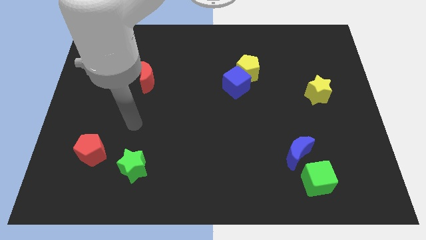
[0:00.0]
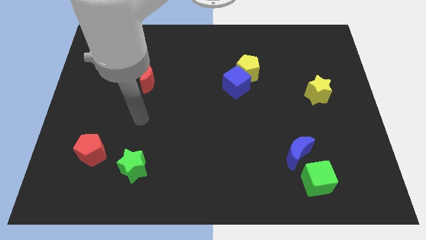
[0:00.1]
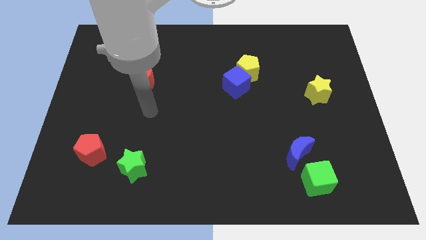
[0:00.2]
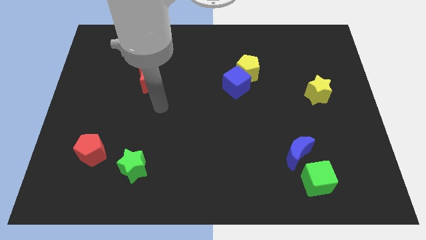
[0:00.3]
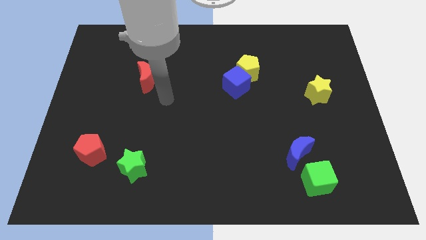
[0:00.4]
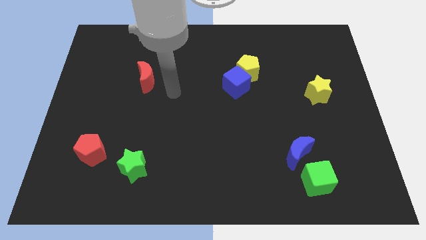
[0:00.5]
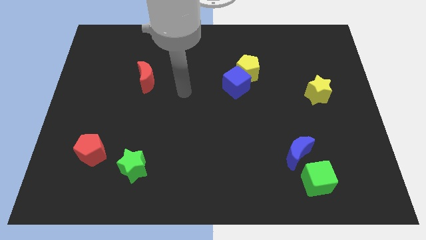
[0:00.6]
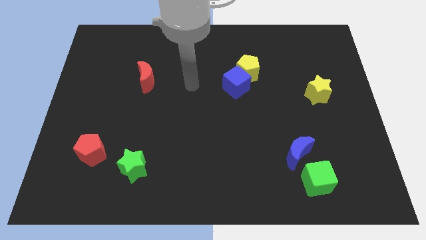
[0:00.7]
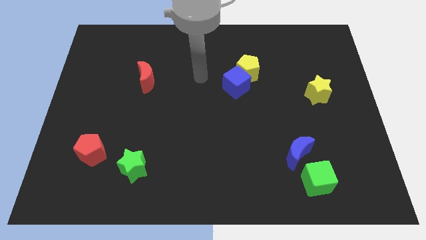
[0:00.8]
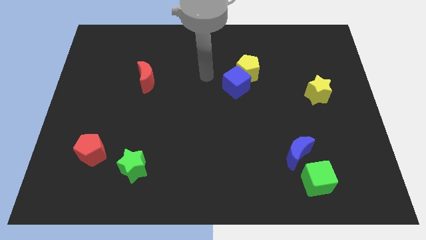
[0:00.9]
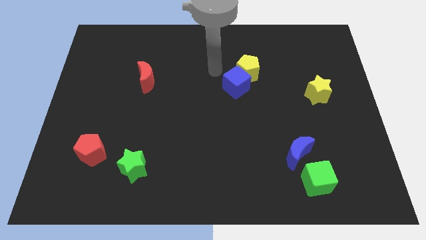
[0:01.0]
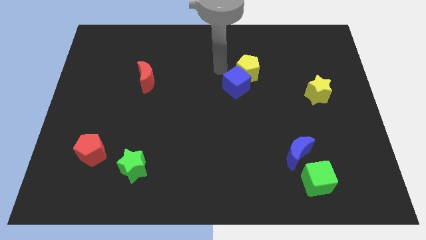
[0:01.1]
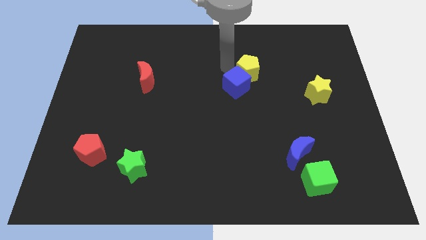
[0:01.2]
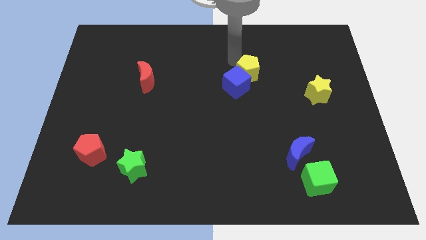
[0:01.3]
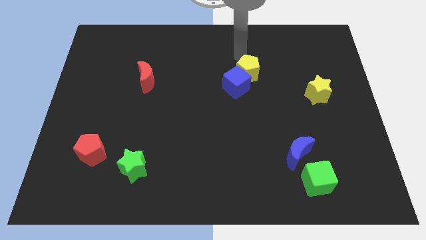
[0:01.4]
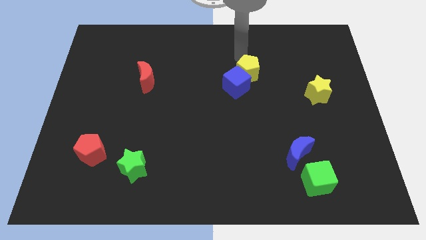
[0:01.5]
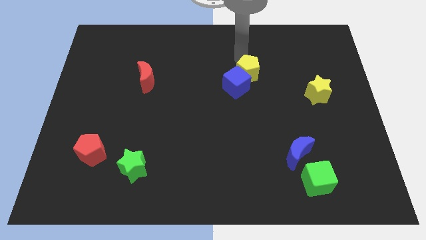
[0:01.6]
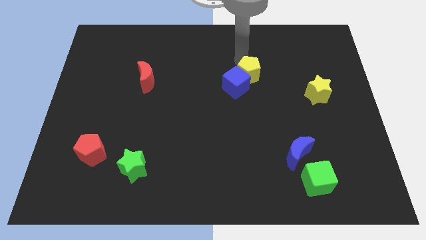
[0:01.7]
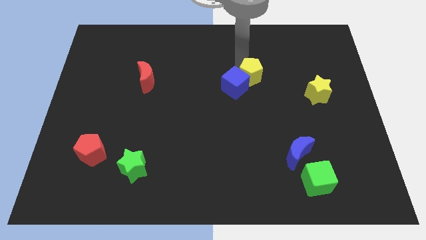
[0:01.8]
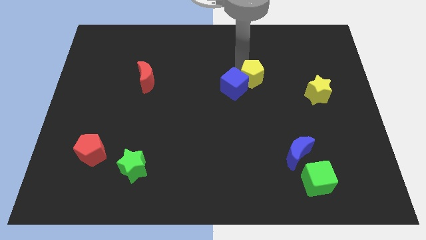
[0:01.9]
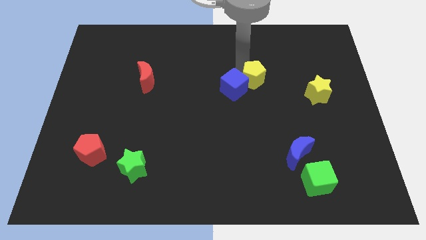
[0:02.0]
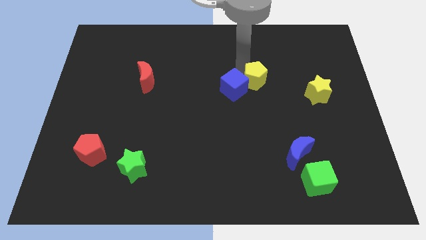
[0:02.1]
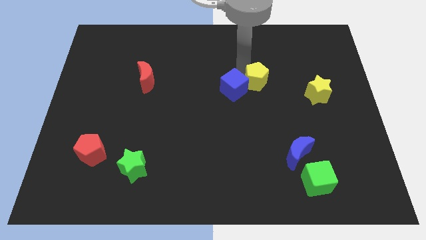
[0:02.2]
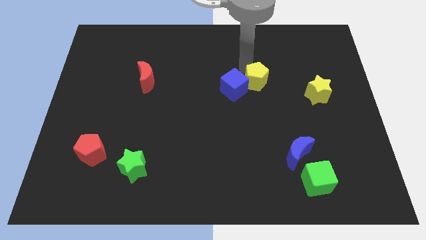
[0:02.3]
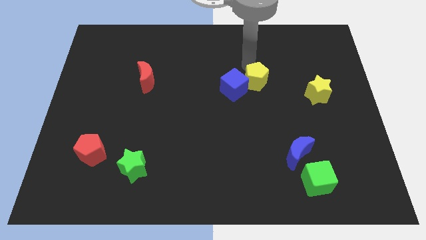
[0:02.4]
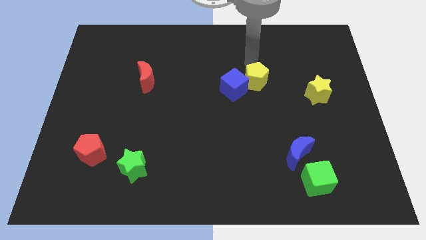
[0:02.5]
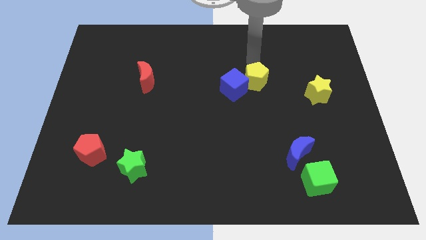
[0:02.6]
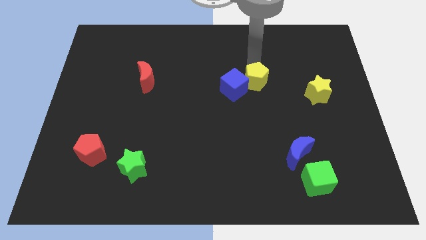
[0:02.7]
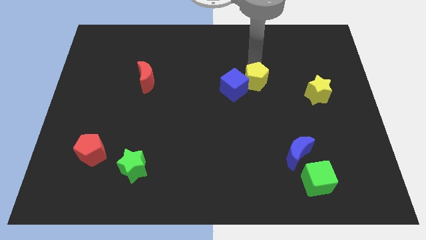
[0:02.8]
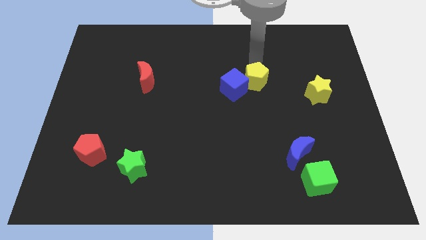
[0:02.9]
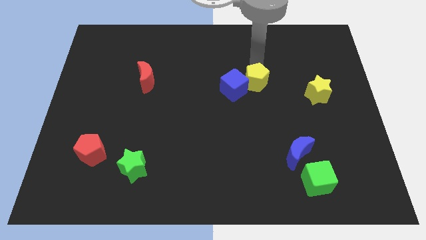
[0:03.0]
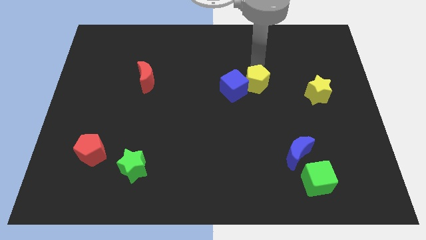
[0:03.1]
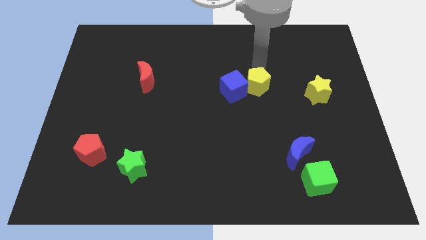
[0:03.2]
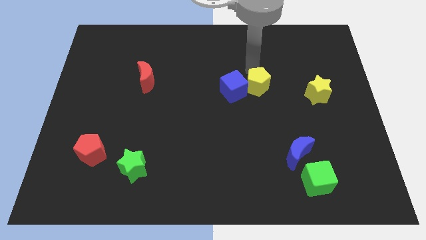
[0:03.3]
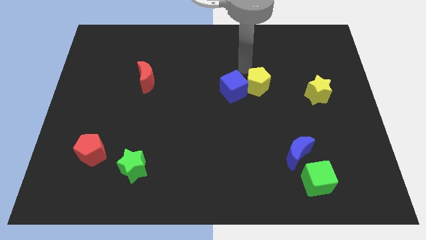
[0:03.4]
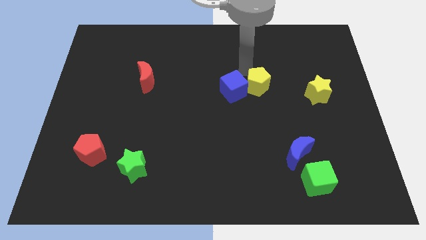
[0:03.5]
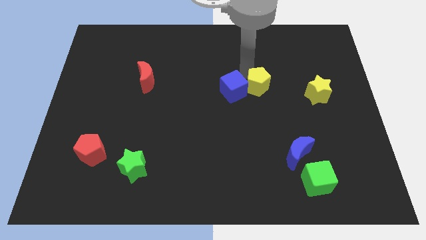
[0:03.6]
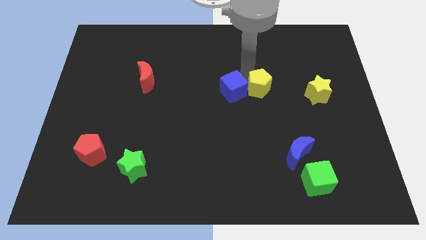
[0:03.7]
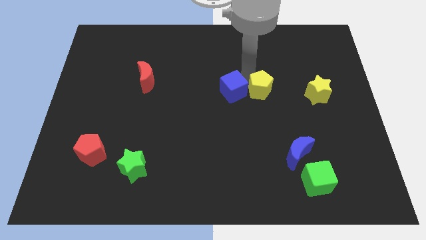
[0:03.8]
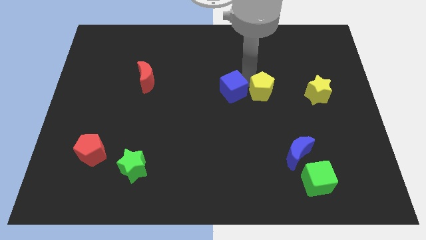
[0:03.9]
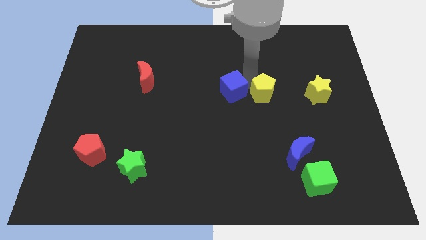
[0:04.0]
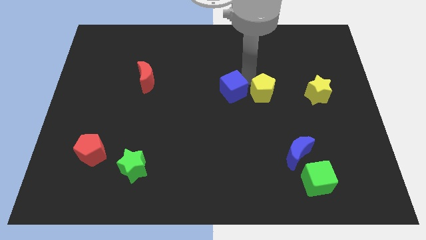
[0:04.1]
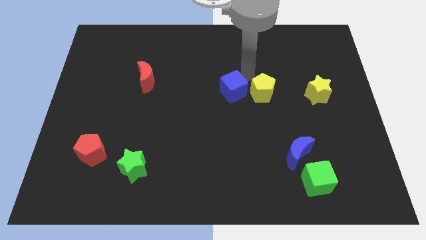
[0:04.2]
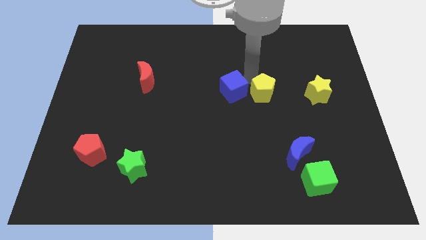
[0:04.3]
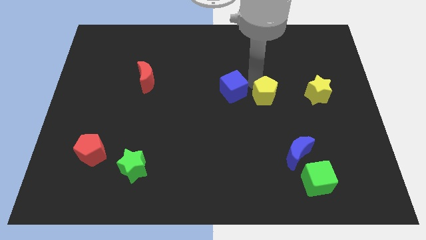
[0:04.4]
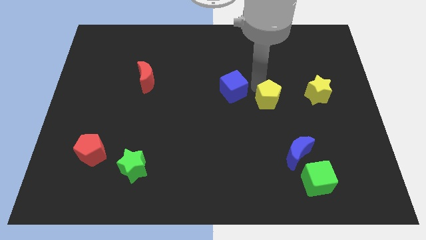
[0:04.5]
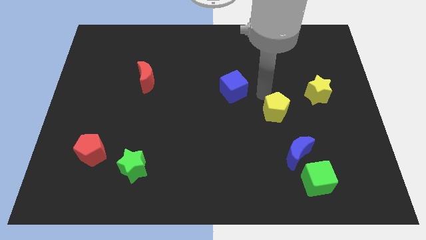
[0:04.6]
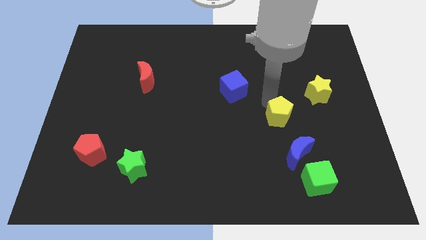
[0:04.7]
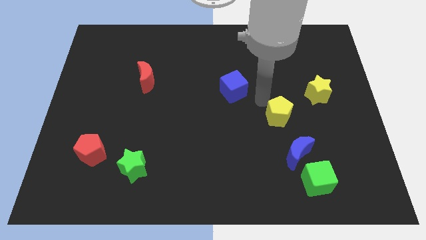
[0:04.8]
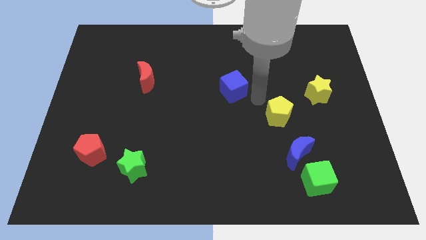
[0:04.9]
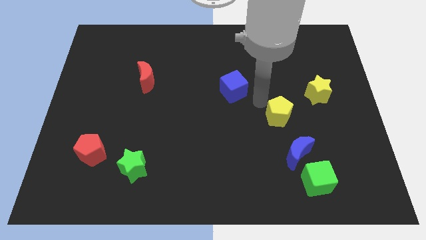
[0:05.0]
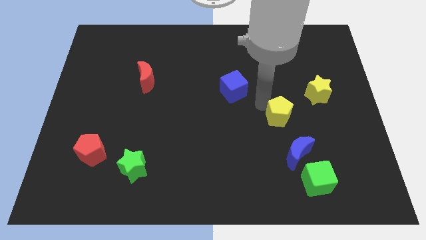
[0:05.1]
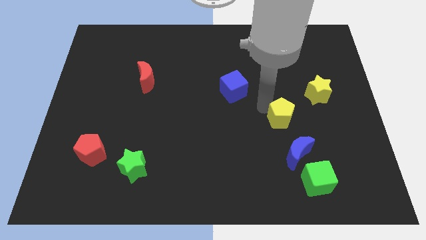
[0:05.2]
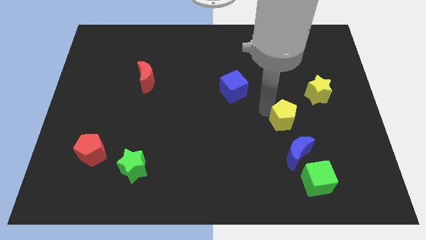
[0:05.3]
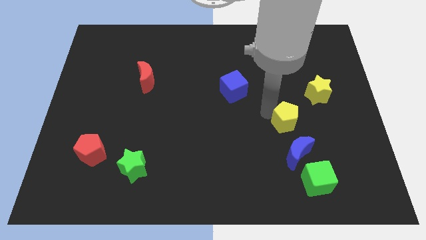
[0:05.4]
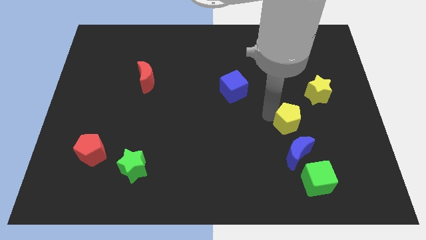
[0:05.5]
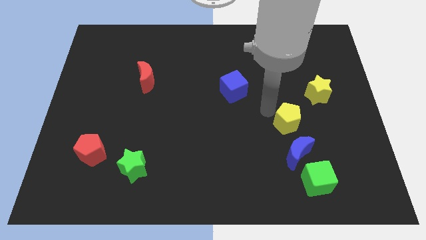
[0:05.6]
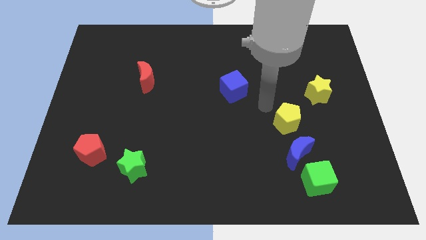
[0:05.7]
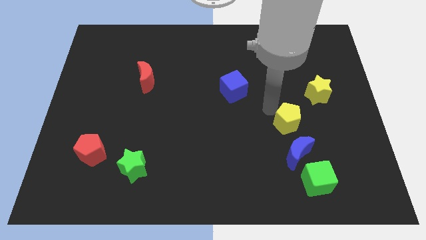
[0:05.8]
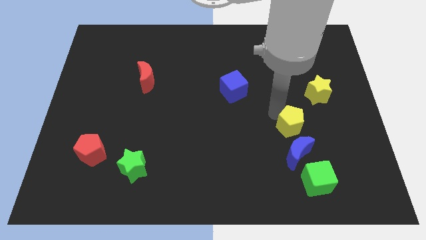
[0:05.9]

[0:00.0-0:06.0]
move the yellow pentagon to the top of the green cube

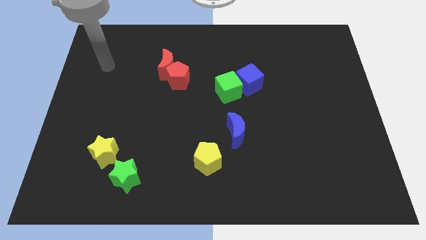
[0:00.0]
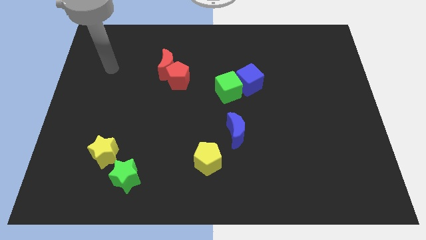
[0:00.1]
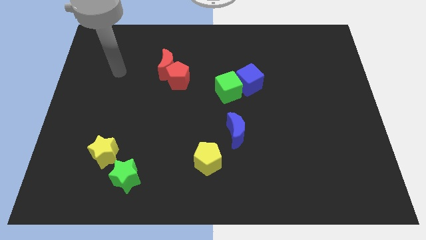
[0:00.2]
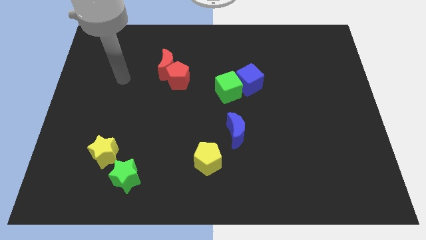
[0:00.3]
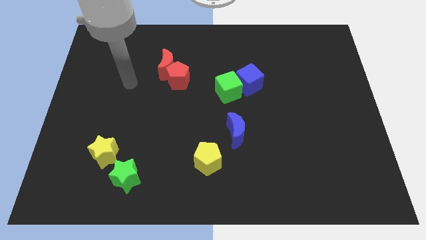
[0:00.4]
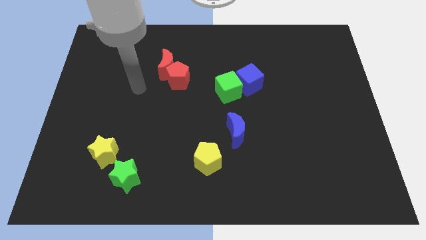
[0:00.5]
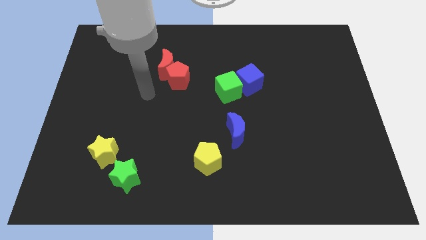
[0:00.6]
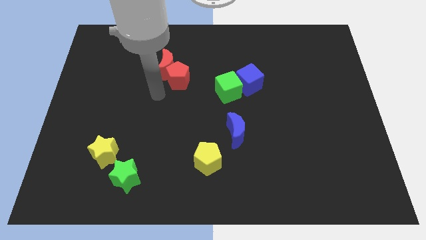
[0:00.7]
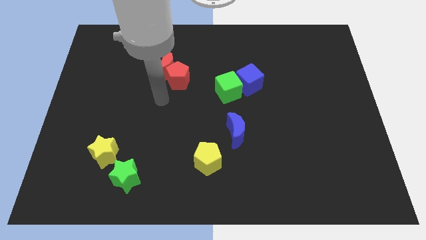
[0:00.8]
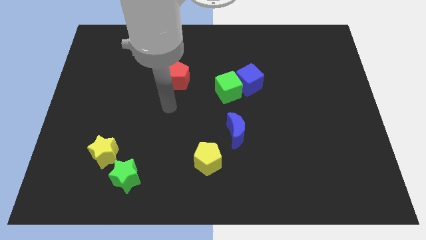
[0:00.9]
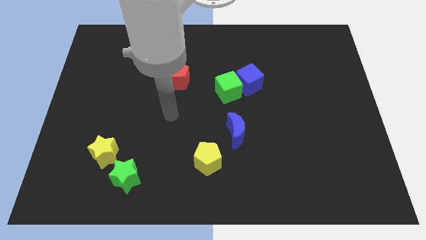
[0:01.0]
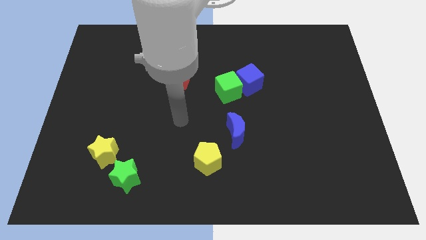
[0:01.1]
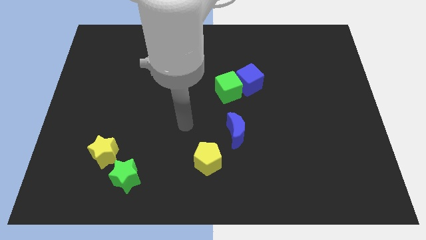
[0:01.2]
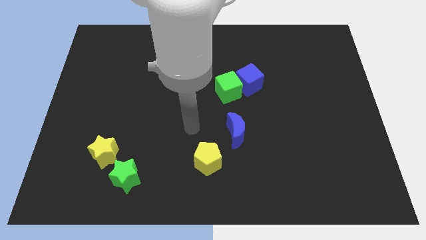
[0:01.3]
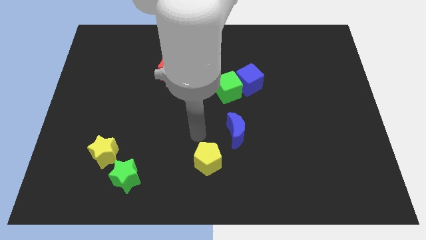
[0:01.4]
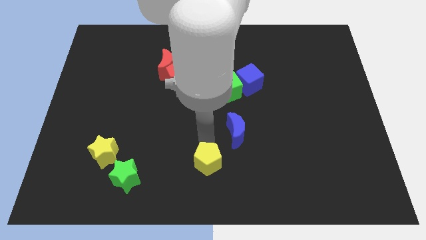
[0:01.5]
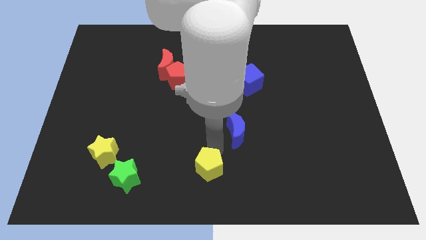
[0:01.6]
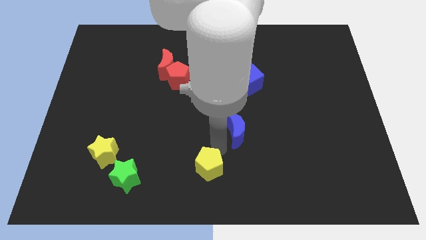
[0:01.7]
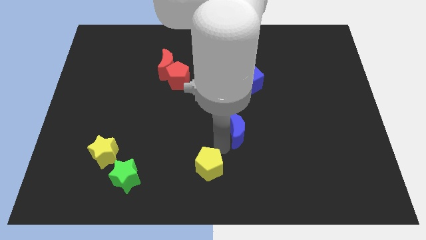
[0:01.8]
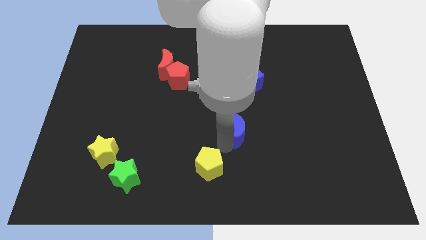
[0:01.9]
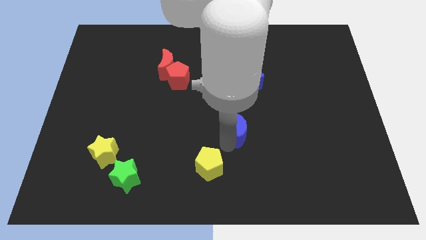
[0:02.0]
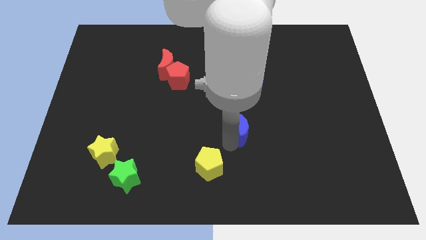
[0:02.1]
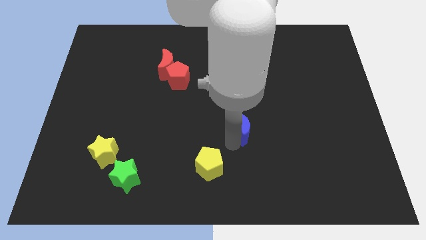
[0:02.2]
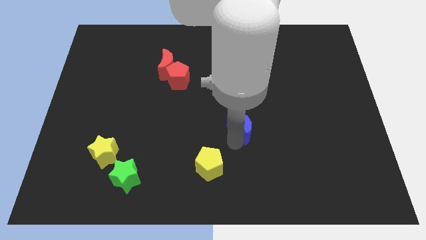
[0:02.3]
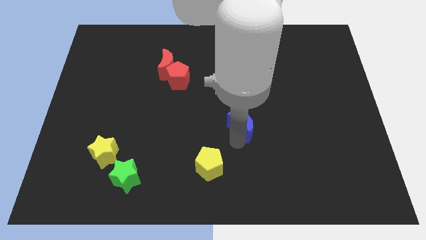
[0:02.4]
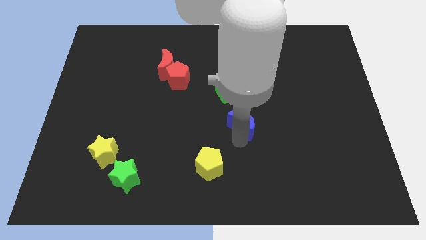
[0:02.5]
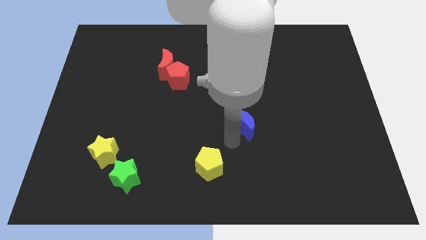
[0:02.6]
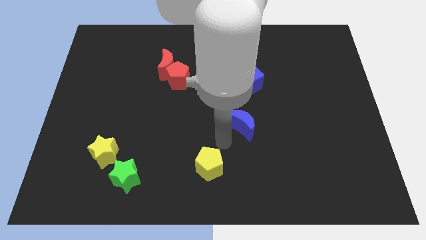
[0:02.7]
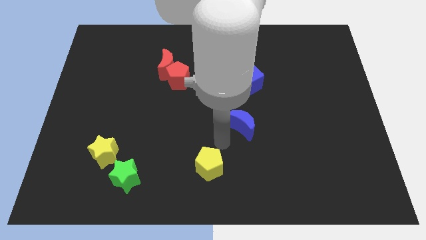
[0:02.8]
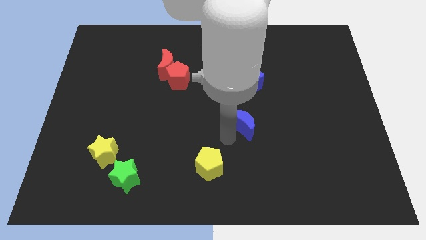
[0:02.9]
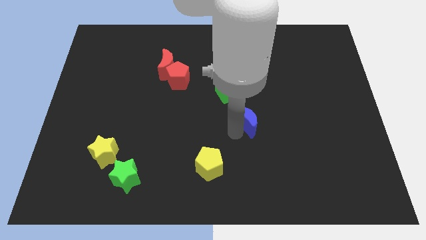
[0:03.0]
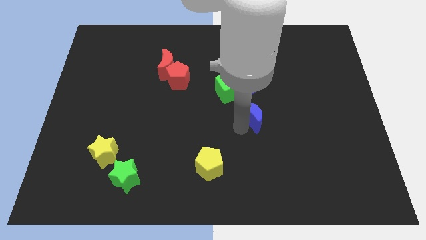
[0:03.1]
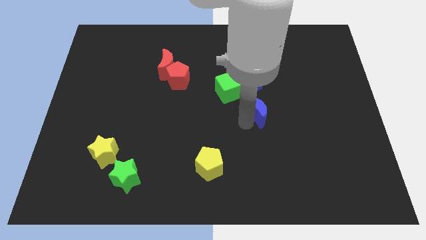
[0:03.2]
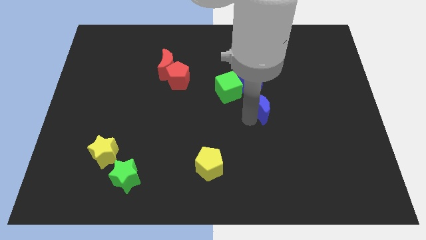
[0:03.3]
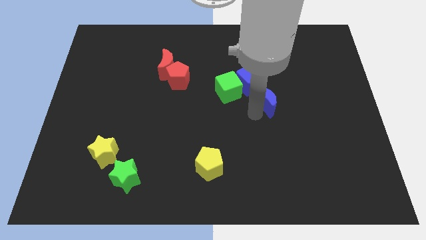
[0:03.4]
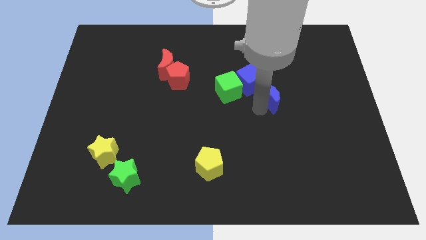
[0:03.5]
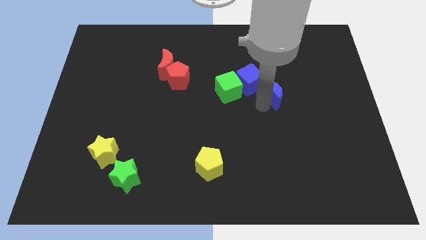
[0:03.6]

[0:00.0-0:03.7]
push the blue moon right of the blue cube
